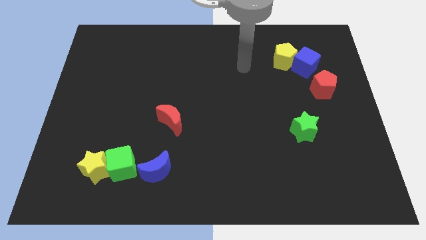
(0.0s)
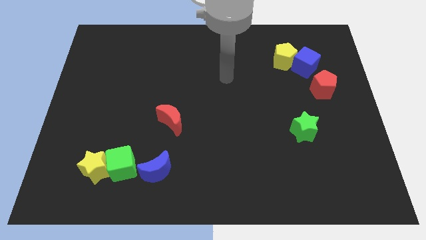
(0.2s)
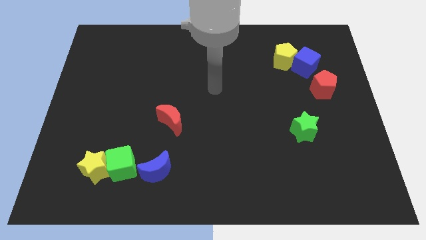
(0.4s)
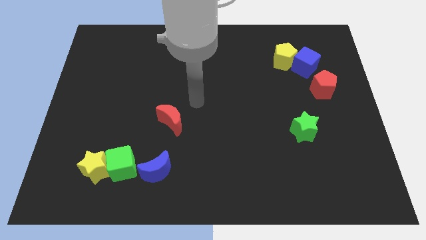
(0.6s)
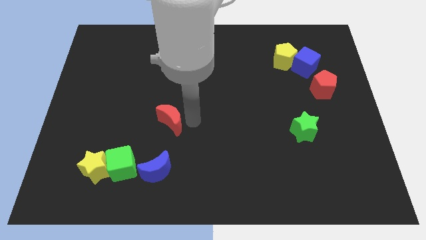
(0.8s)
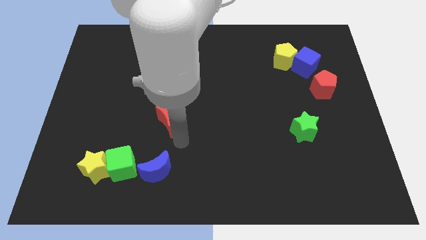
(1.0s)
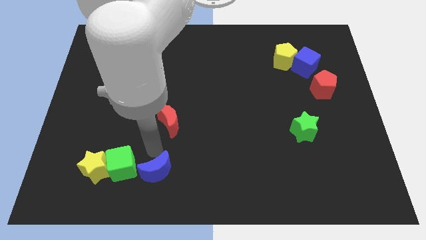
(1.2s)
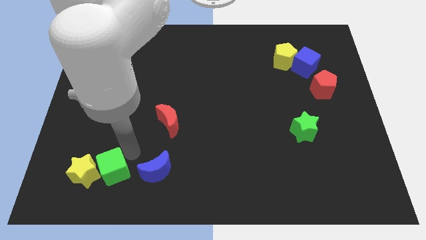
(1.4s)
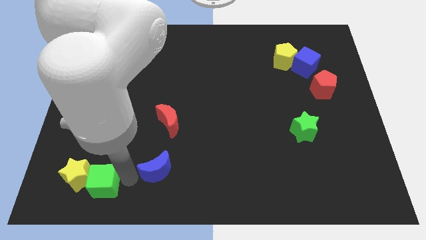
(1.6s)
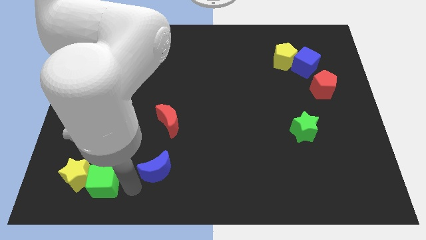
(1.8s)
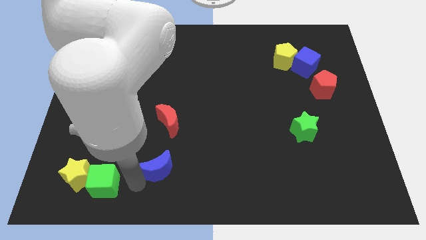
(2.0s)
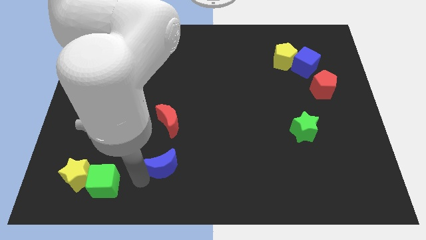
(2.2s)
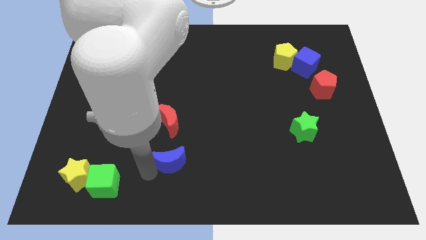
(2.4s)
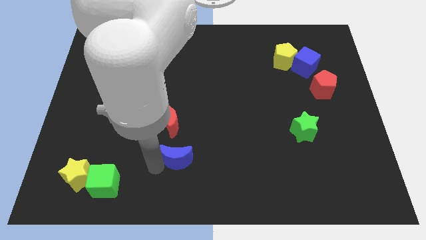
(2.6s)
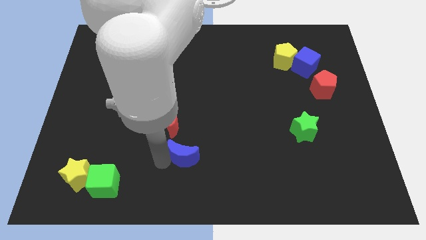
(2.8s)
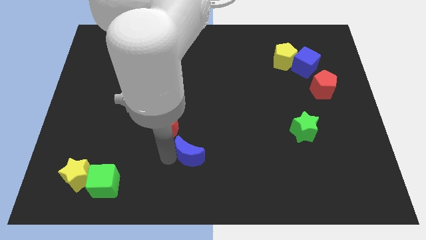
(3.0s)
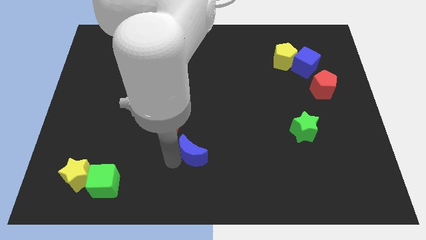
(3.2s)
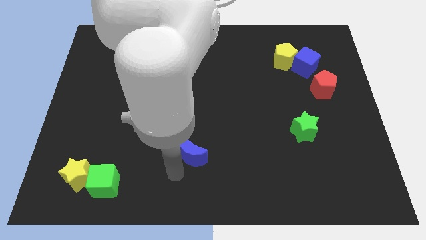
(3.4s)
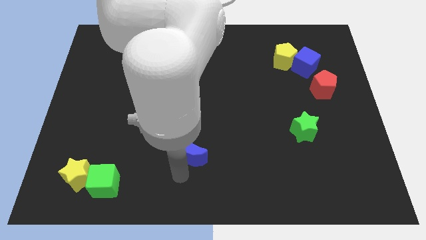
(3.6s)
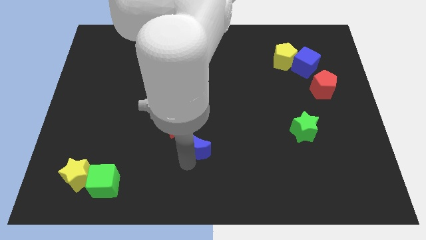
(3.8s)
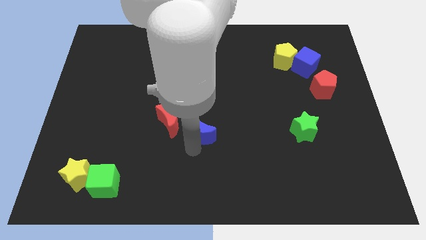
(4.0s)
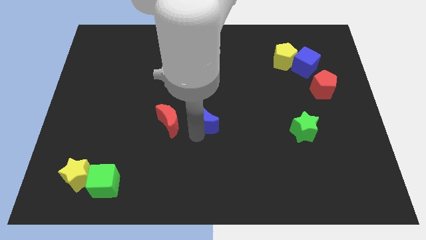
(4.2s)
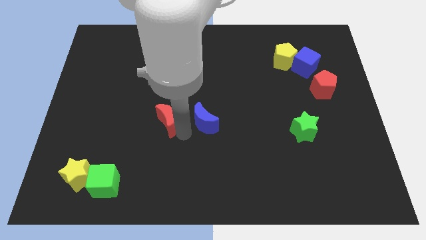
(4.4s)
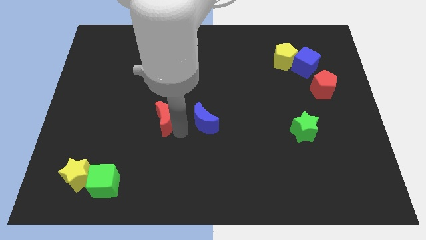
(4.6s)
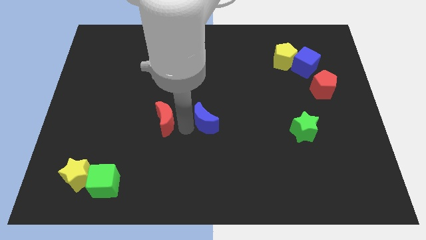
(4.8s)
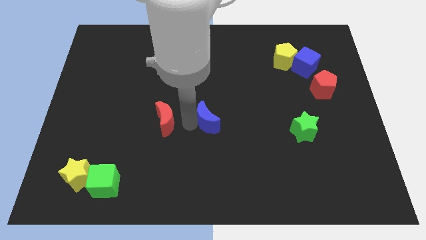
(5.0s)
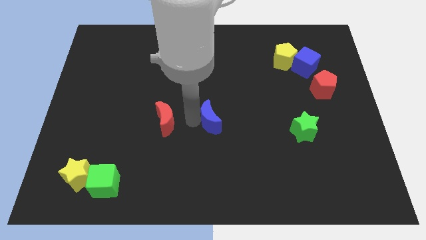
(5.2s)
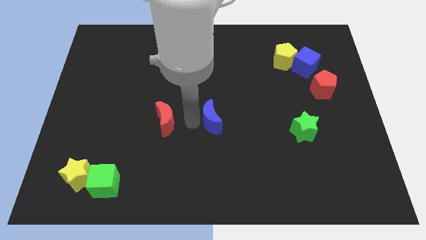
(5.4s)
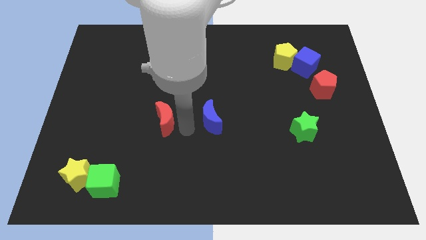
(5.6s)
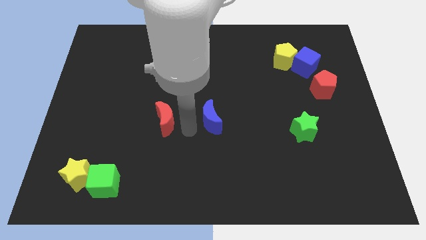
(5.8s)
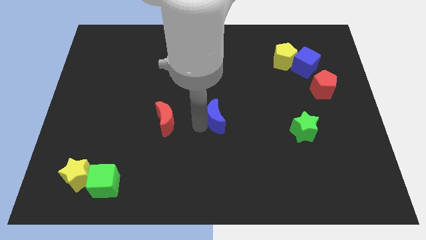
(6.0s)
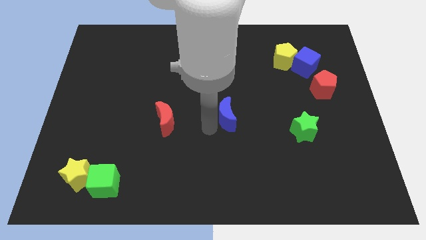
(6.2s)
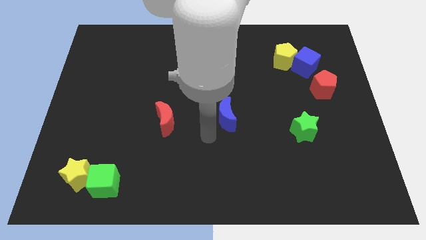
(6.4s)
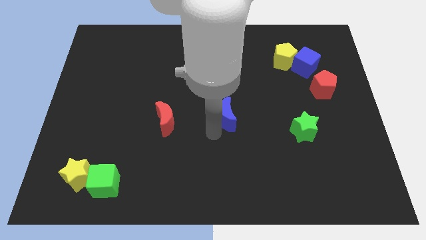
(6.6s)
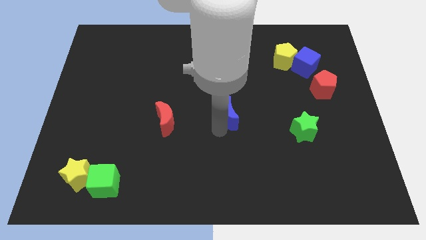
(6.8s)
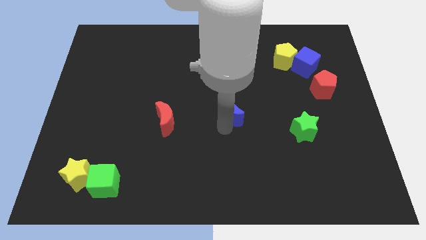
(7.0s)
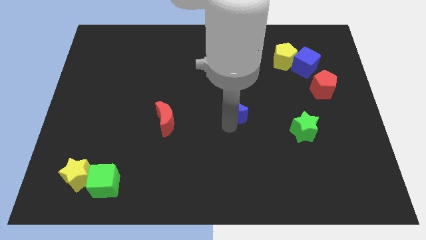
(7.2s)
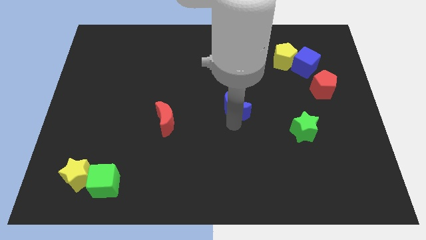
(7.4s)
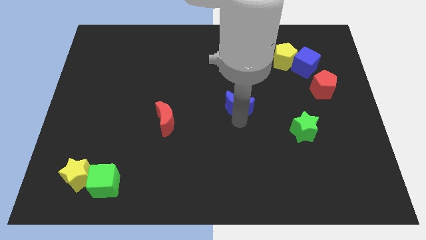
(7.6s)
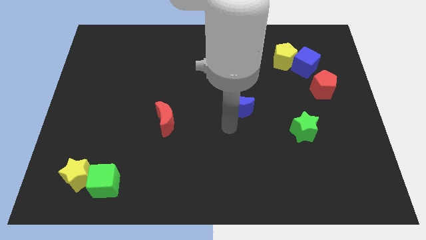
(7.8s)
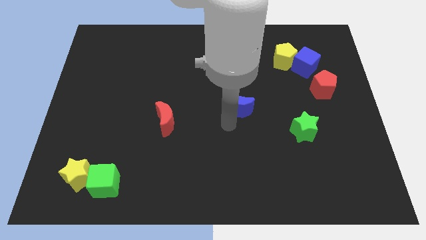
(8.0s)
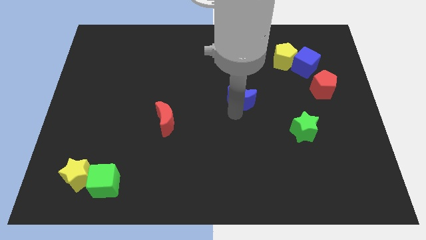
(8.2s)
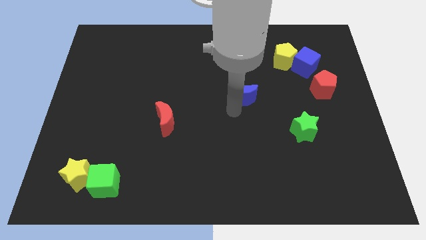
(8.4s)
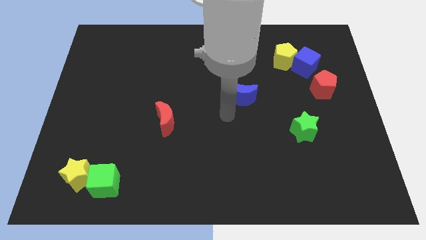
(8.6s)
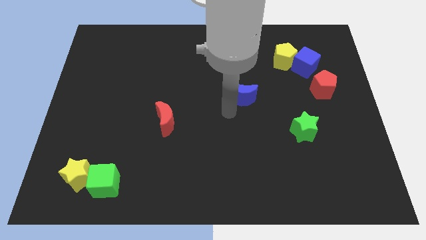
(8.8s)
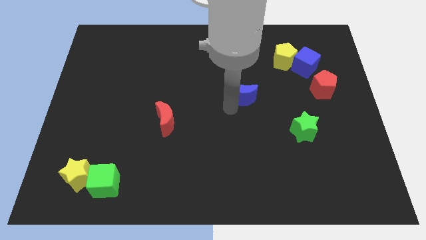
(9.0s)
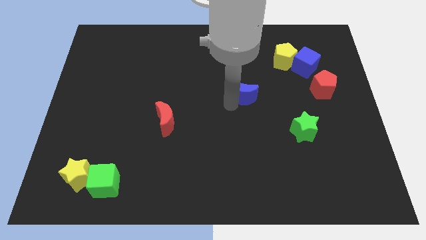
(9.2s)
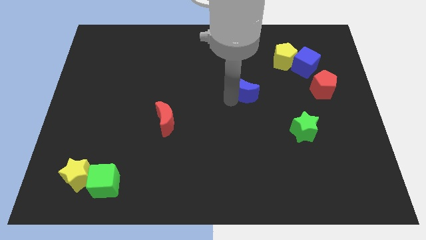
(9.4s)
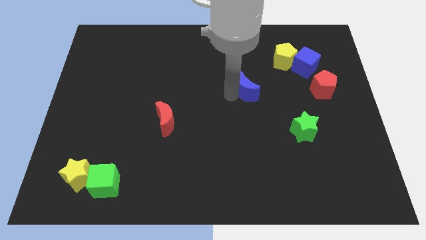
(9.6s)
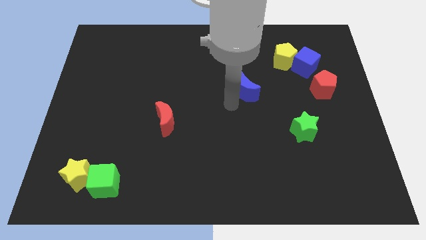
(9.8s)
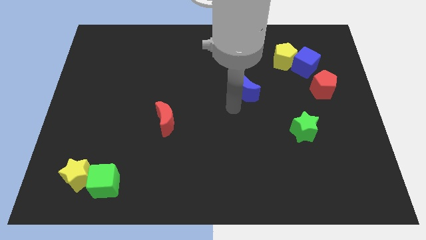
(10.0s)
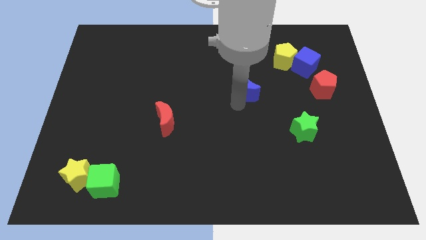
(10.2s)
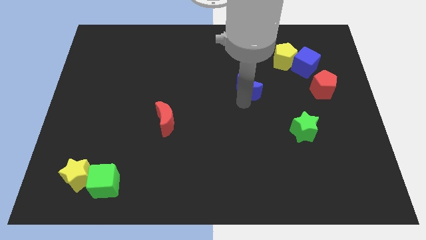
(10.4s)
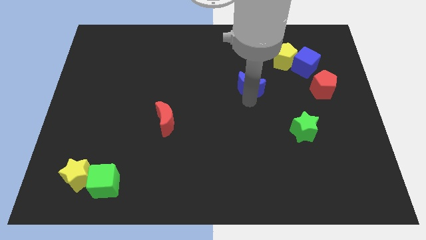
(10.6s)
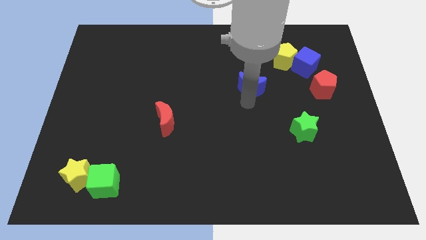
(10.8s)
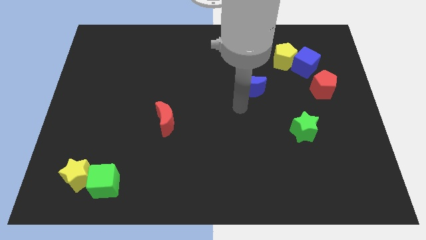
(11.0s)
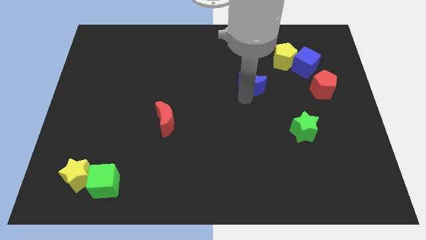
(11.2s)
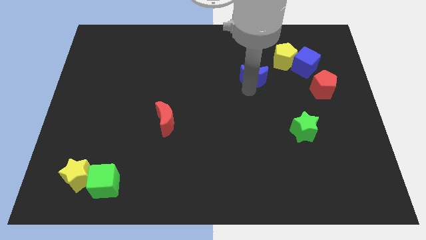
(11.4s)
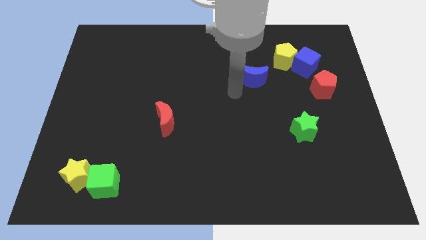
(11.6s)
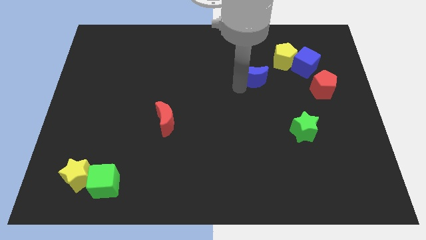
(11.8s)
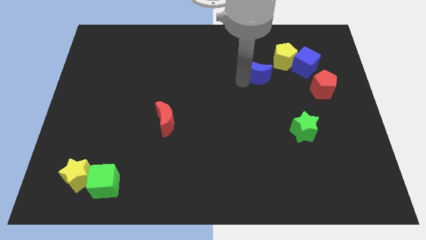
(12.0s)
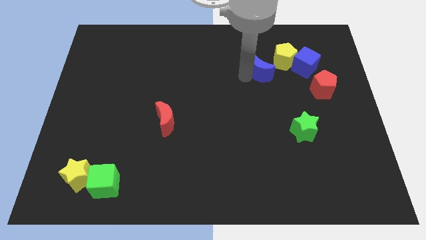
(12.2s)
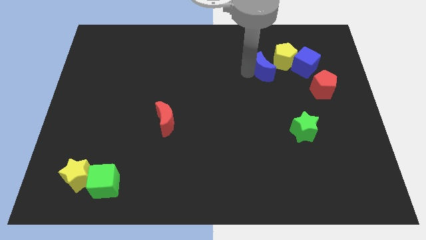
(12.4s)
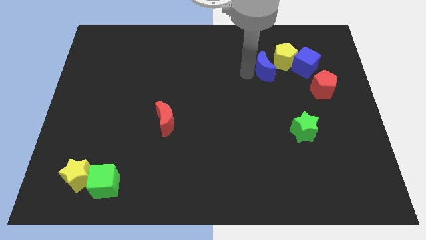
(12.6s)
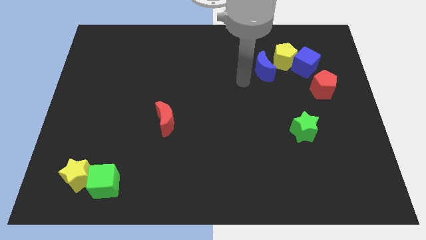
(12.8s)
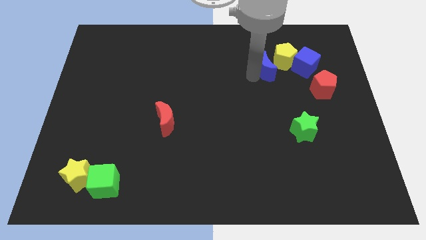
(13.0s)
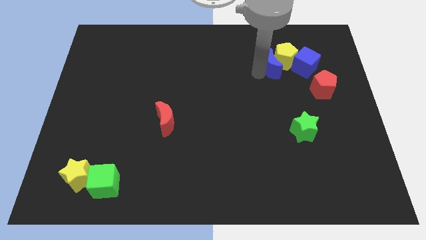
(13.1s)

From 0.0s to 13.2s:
slide the blue moon towards the yellow pentagon
